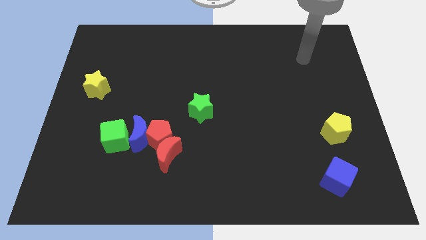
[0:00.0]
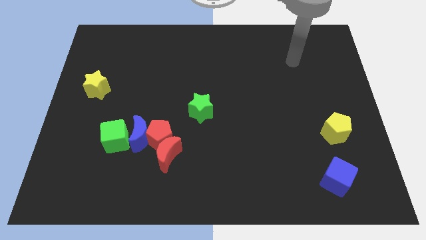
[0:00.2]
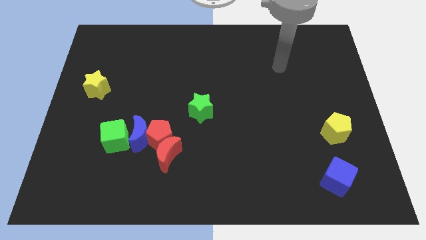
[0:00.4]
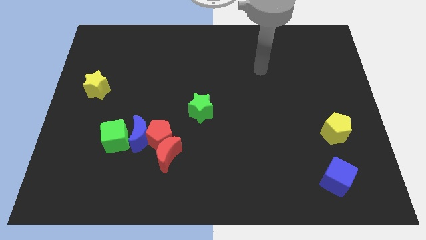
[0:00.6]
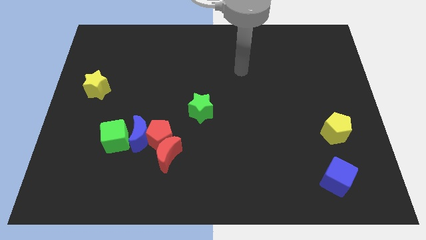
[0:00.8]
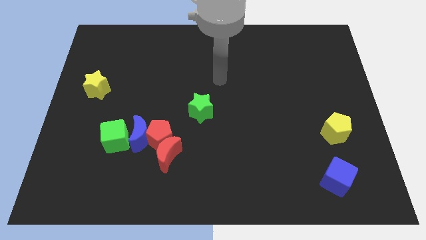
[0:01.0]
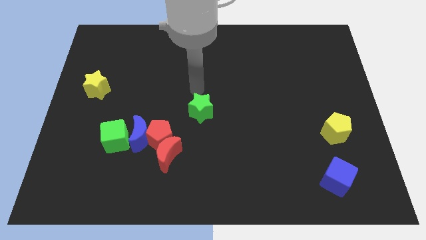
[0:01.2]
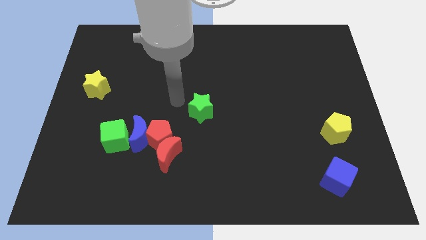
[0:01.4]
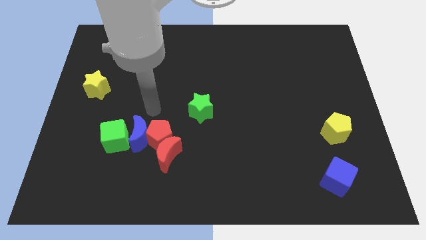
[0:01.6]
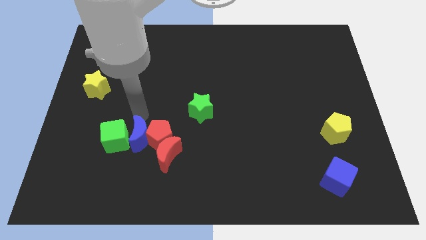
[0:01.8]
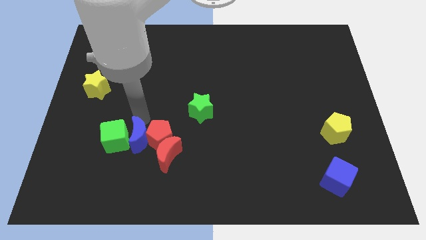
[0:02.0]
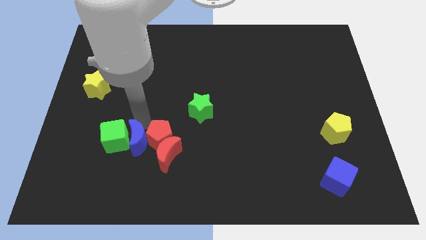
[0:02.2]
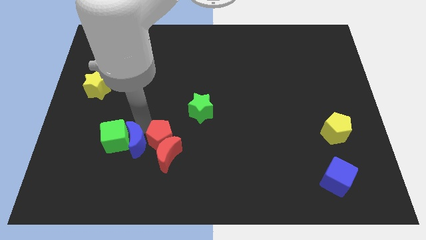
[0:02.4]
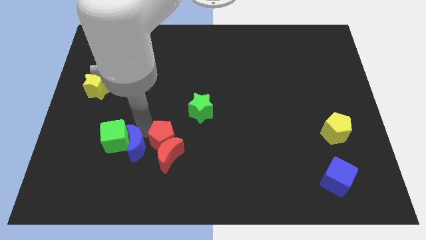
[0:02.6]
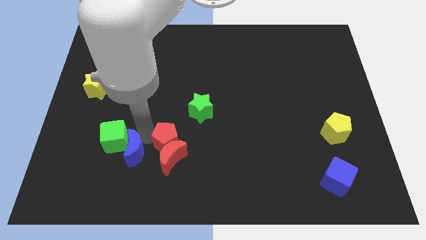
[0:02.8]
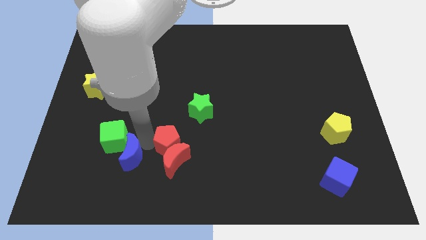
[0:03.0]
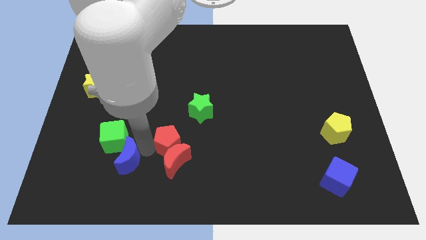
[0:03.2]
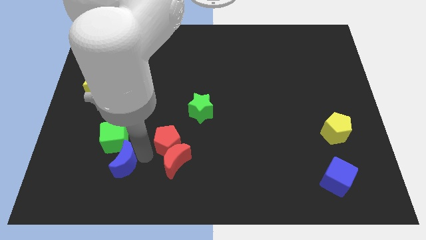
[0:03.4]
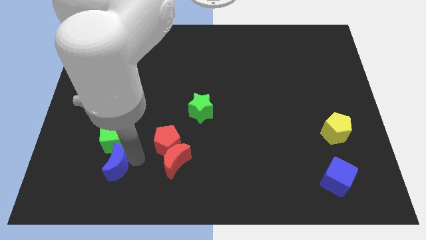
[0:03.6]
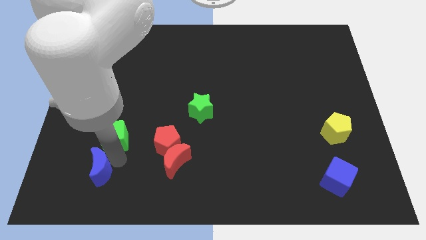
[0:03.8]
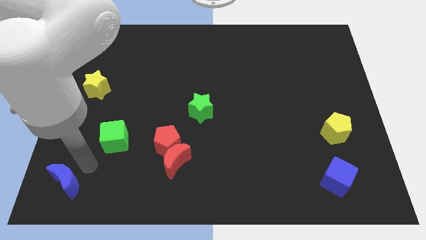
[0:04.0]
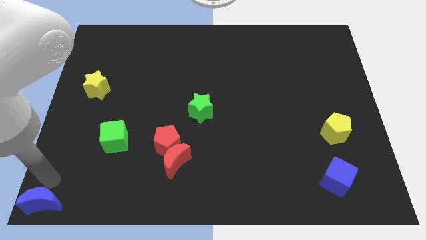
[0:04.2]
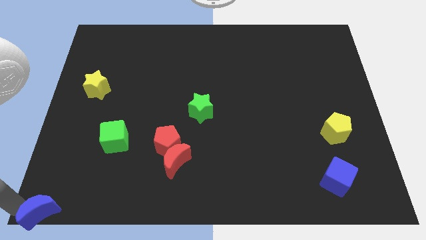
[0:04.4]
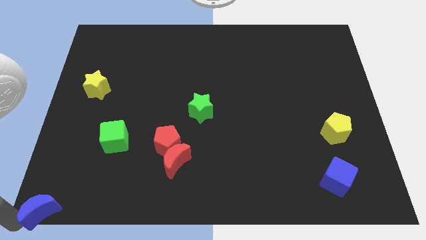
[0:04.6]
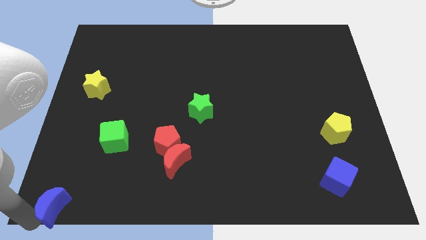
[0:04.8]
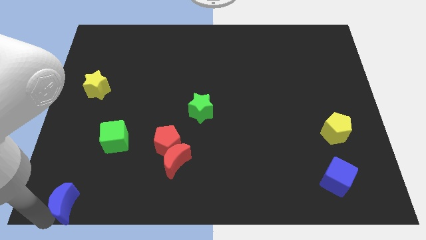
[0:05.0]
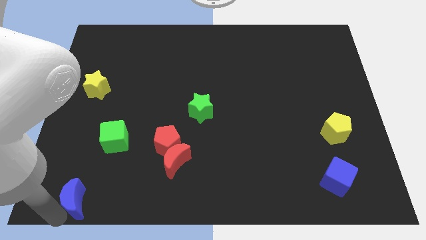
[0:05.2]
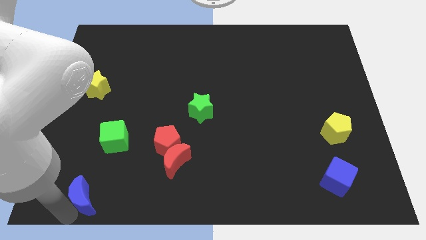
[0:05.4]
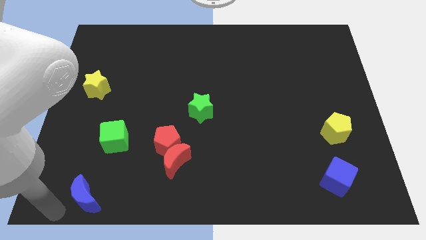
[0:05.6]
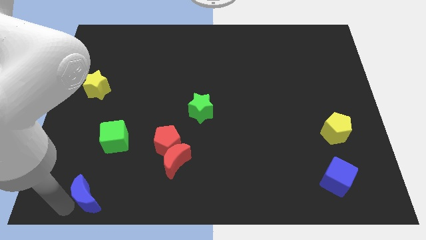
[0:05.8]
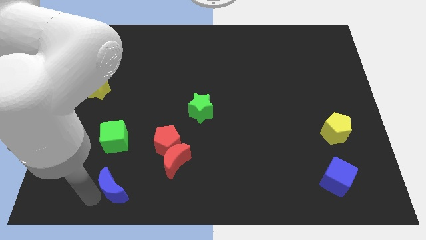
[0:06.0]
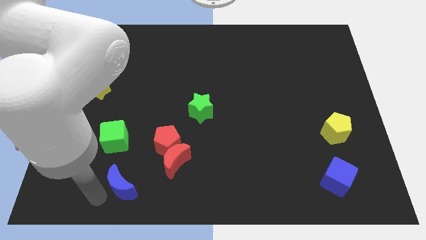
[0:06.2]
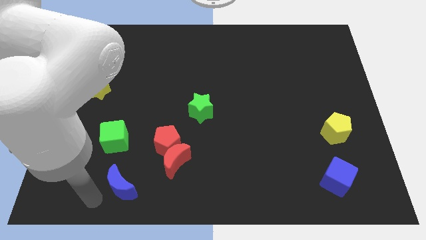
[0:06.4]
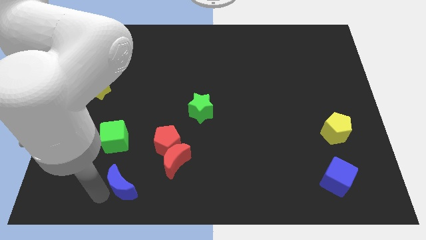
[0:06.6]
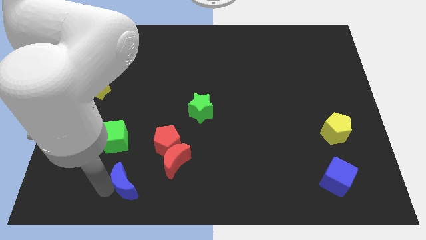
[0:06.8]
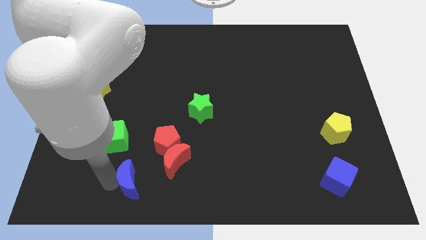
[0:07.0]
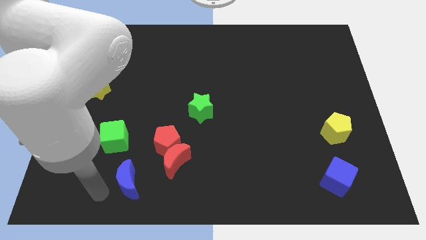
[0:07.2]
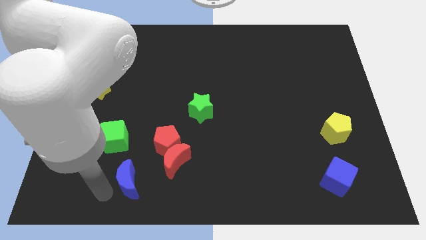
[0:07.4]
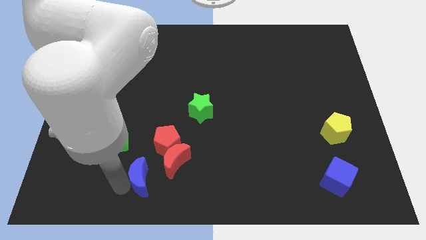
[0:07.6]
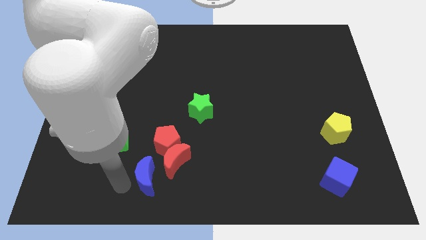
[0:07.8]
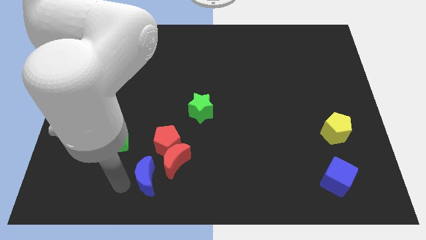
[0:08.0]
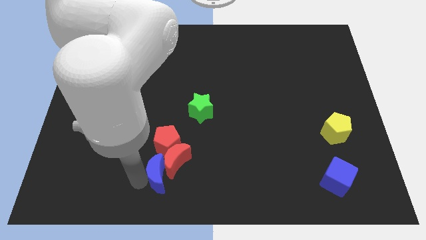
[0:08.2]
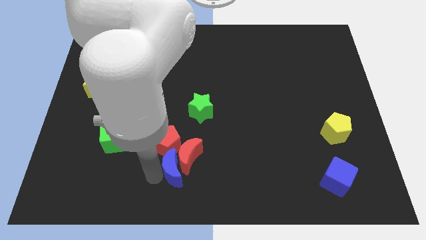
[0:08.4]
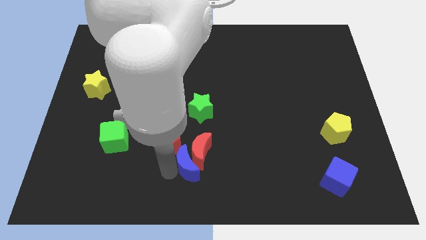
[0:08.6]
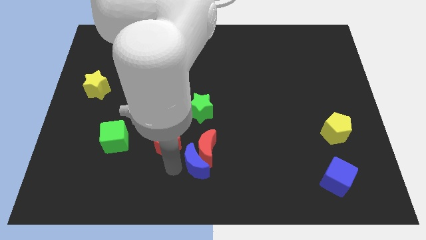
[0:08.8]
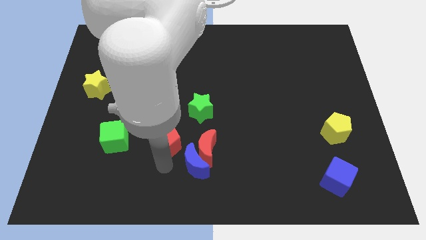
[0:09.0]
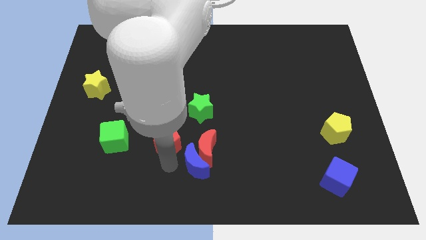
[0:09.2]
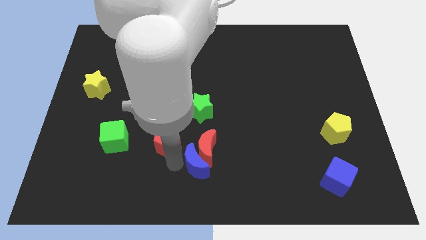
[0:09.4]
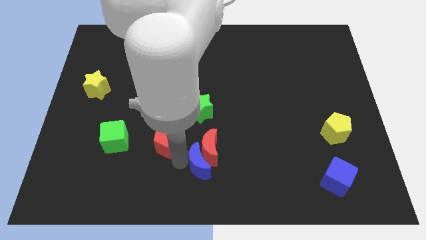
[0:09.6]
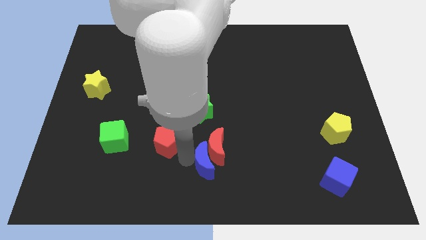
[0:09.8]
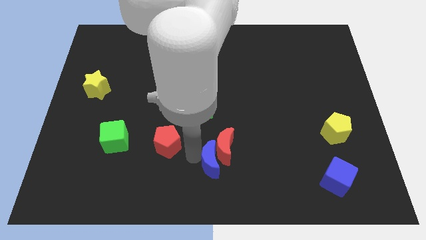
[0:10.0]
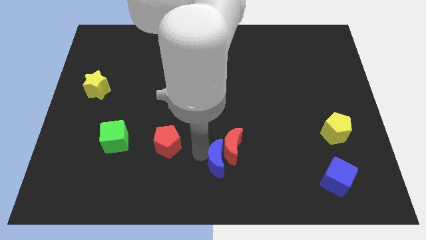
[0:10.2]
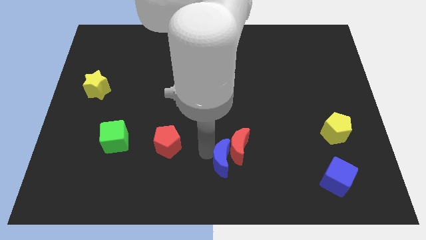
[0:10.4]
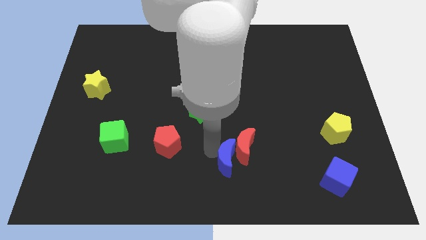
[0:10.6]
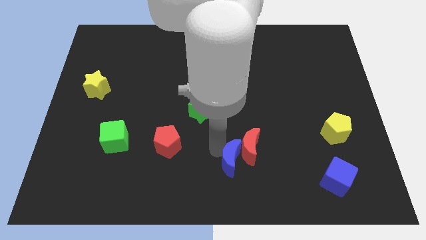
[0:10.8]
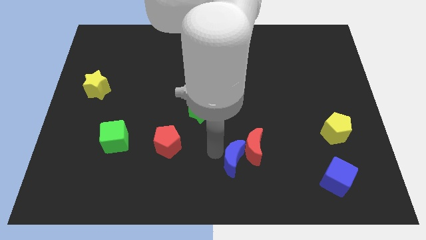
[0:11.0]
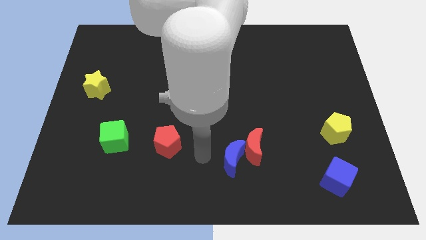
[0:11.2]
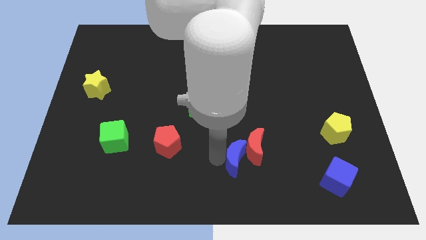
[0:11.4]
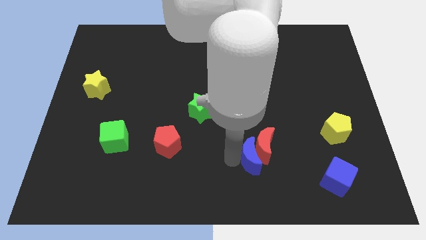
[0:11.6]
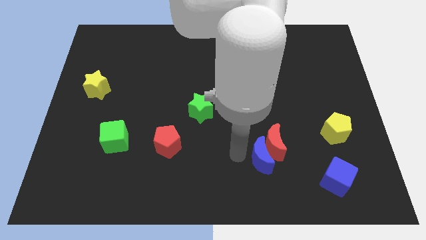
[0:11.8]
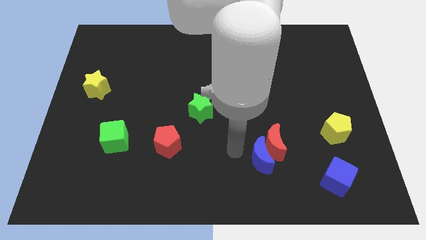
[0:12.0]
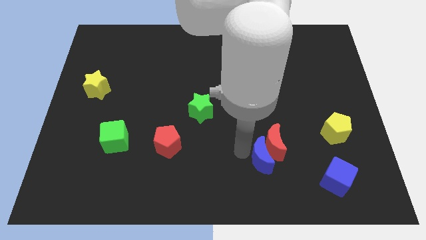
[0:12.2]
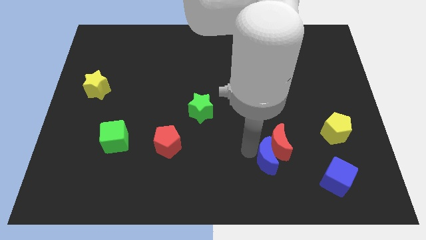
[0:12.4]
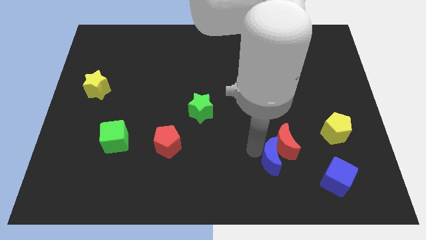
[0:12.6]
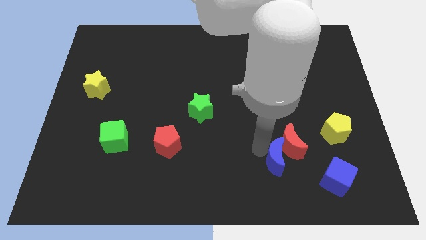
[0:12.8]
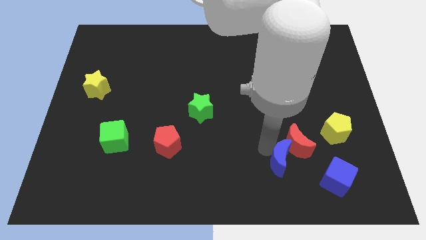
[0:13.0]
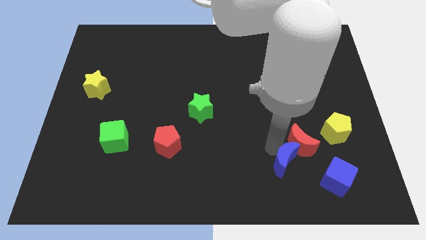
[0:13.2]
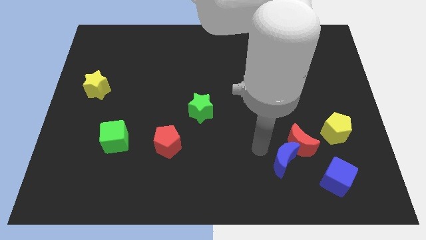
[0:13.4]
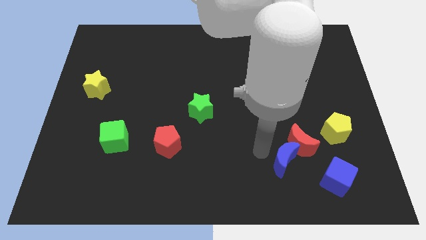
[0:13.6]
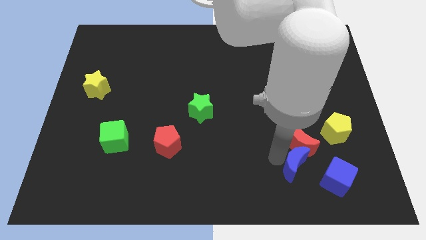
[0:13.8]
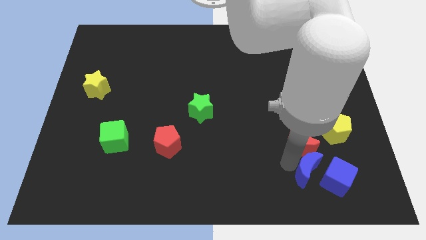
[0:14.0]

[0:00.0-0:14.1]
put the blue moon close to the blue cube
